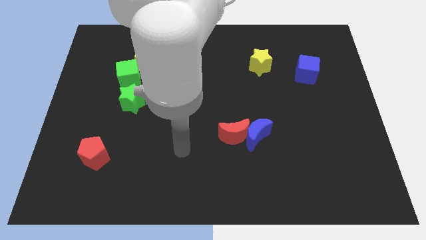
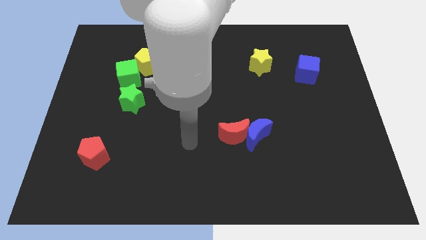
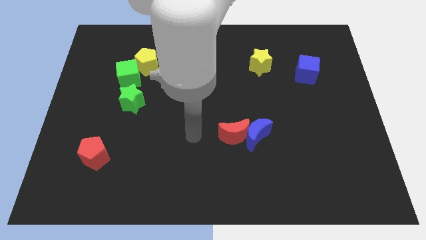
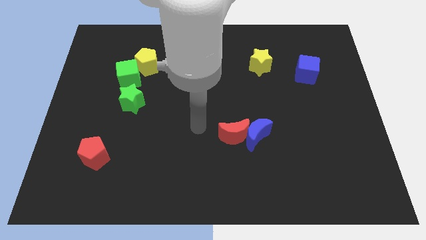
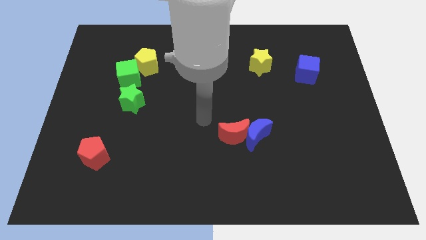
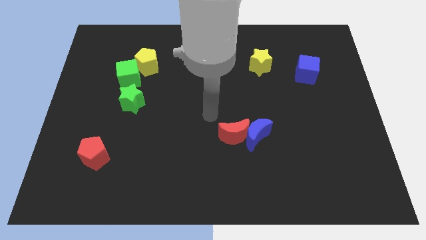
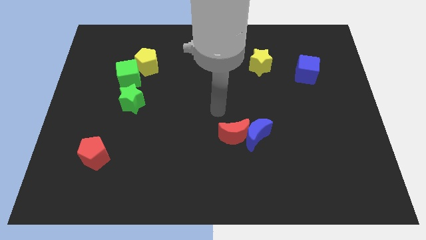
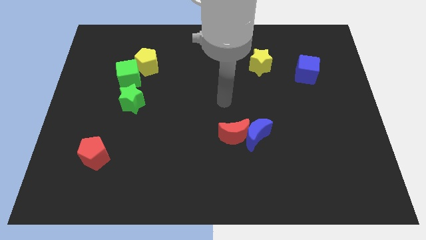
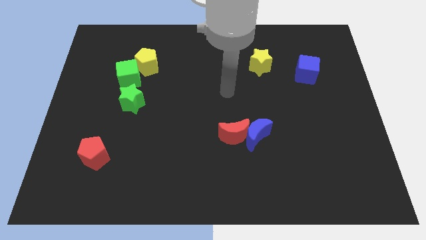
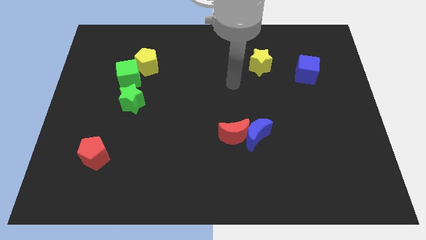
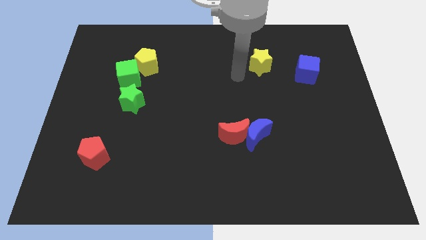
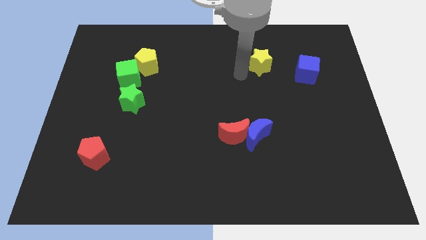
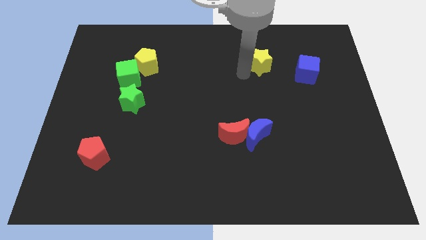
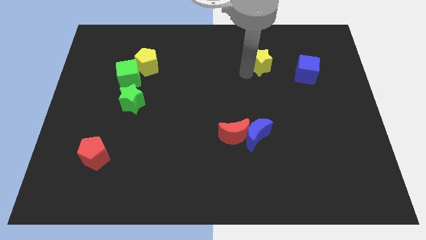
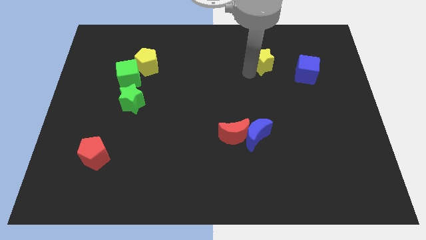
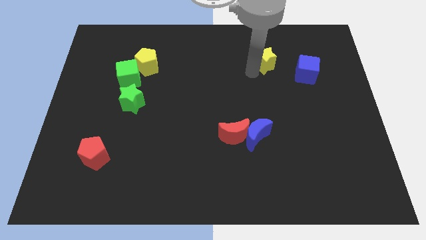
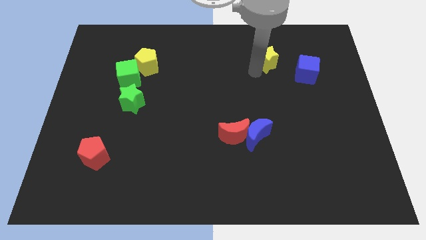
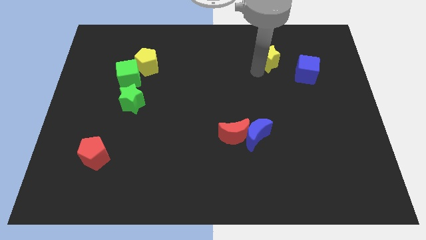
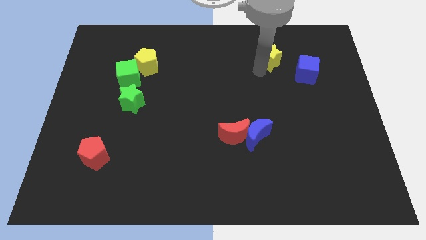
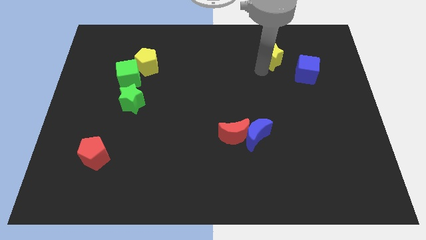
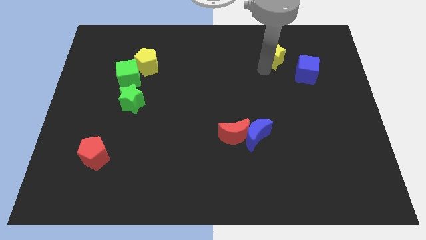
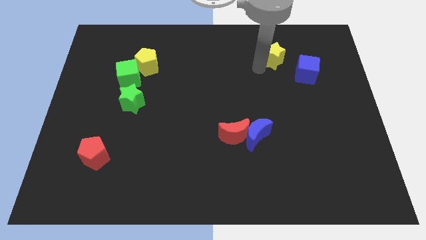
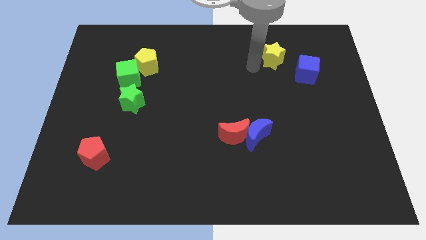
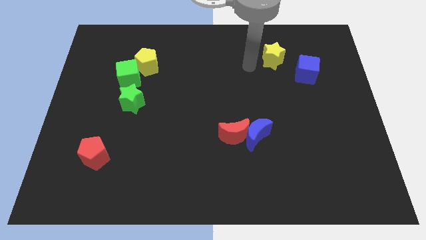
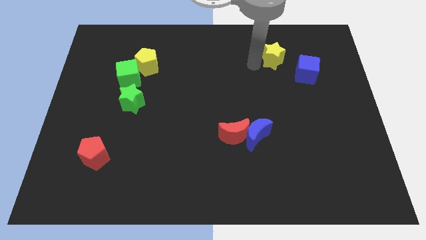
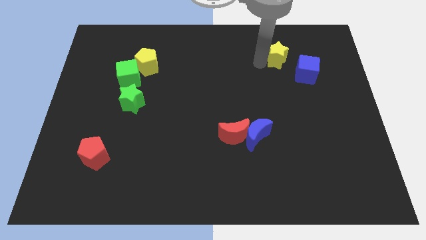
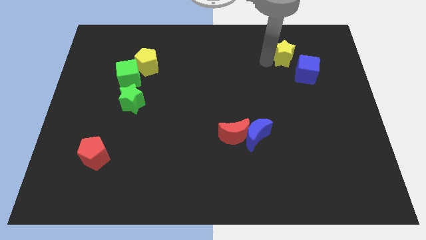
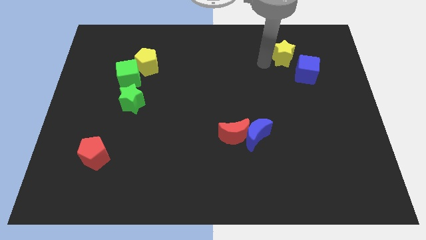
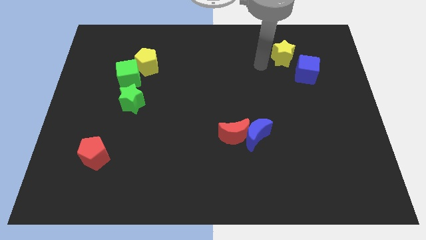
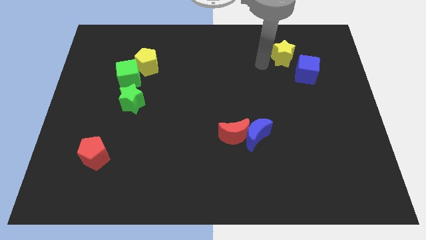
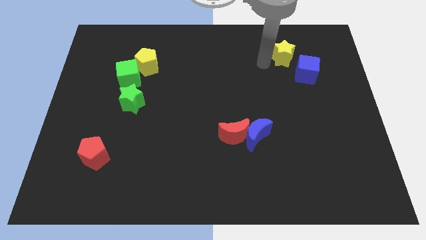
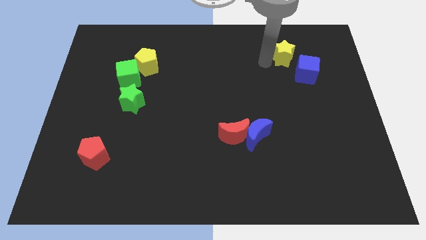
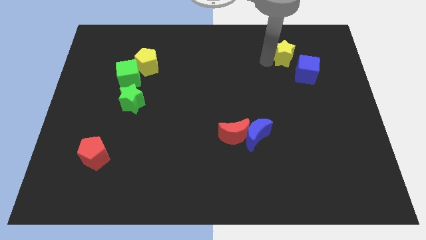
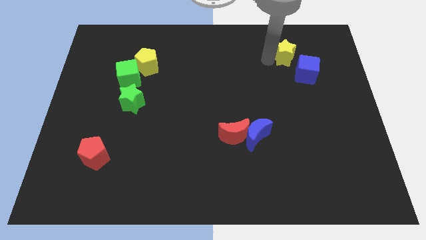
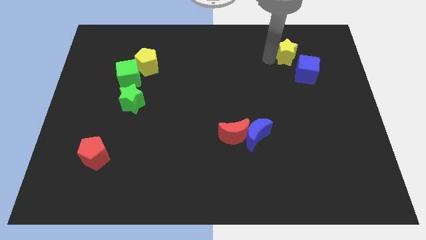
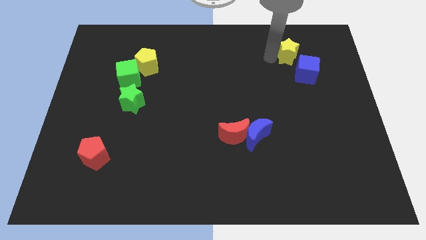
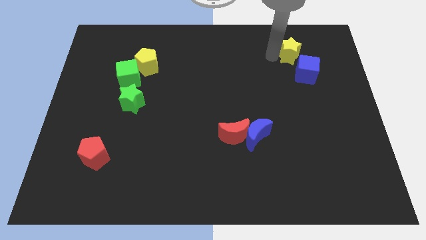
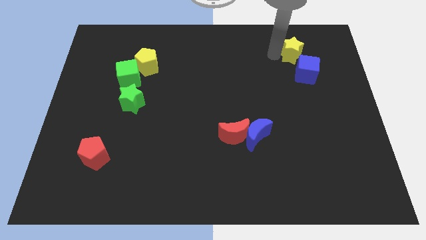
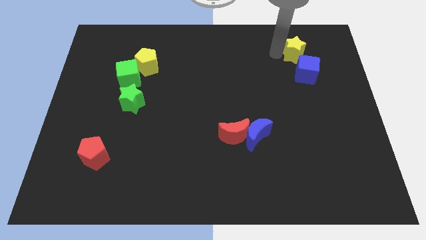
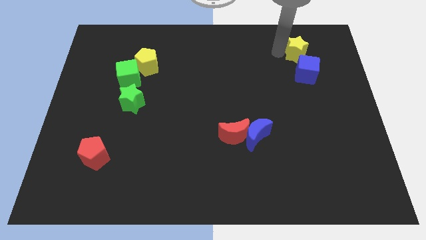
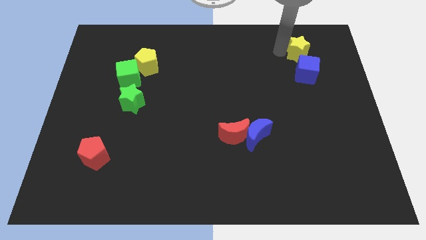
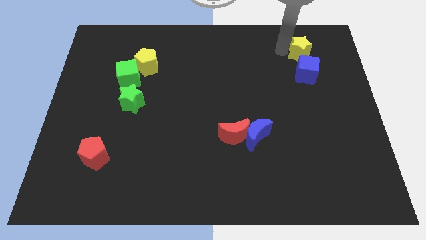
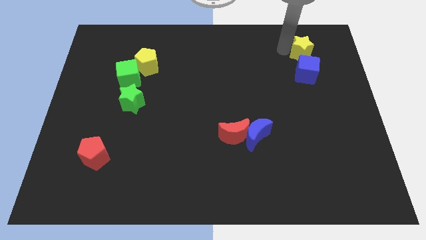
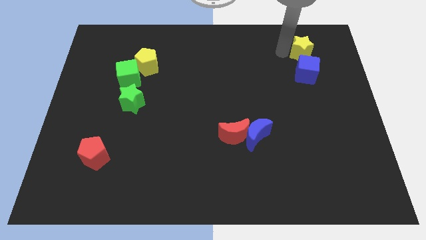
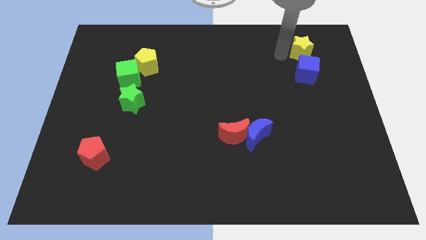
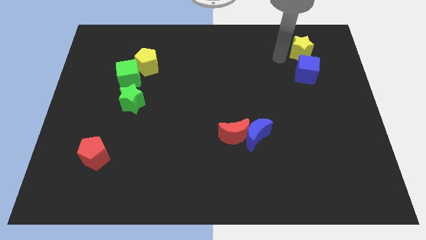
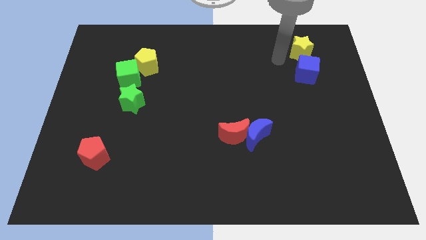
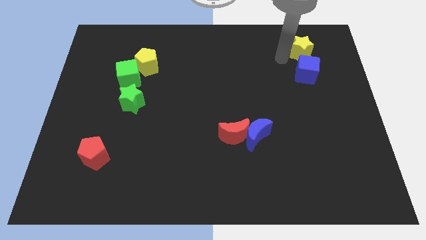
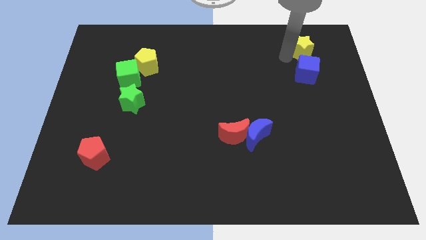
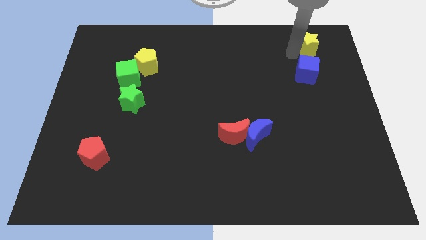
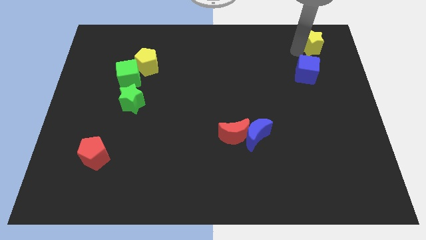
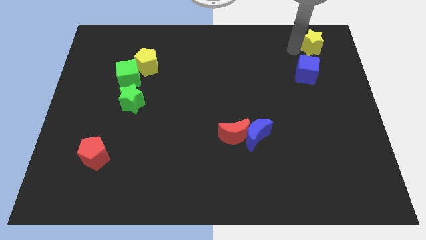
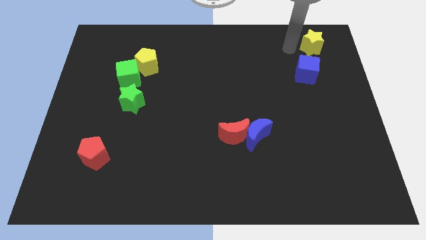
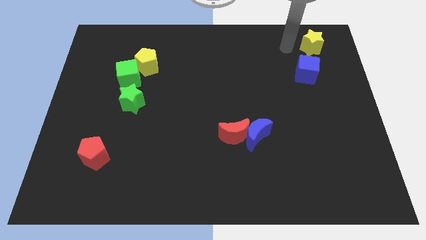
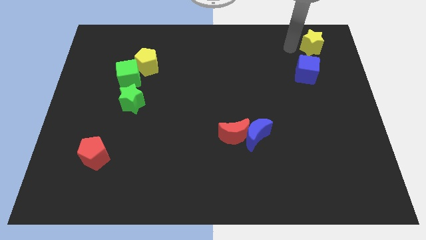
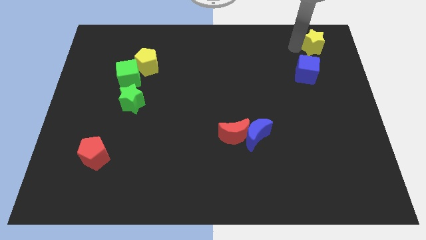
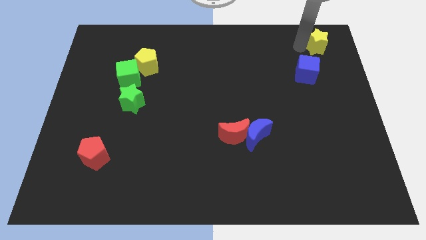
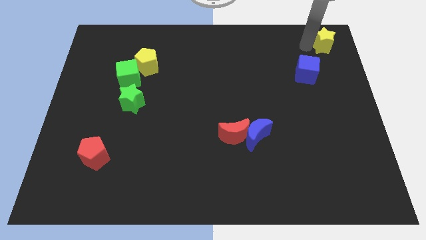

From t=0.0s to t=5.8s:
move the yellow star to the top right corner

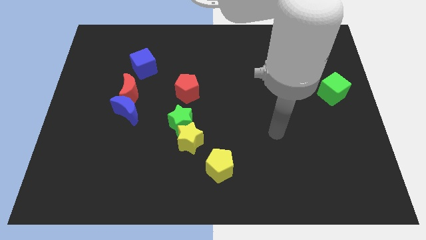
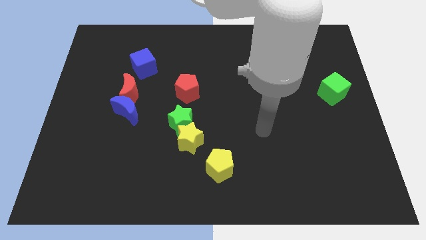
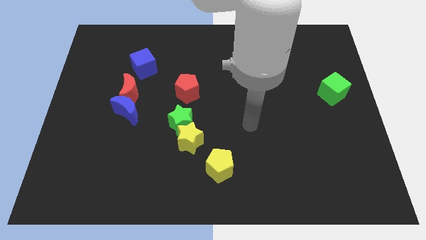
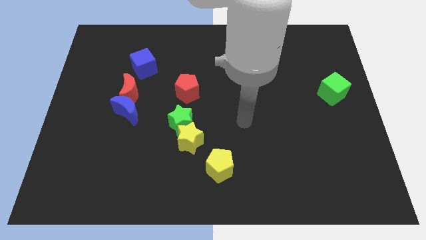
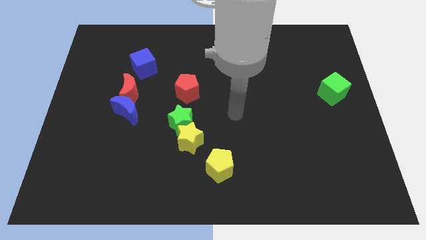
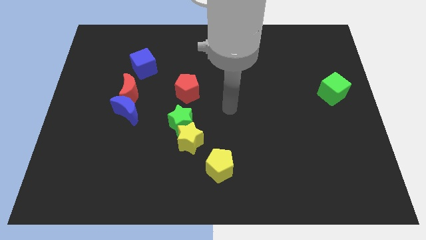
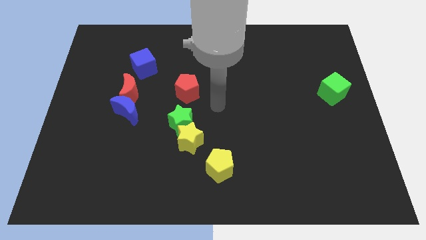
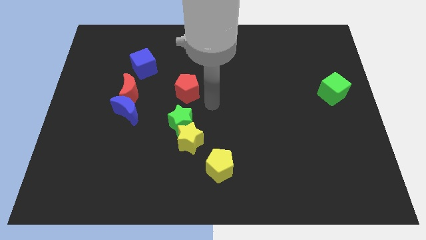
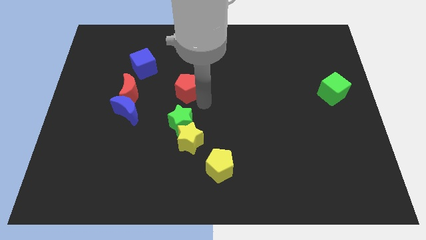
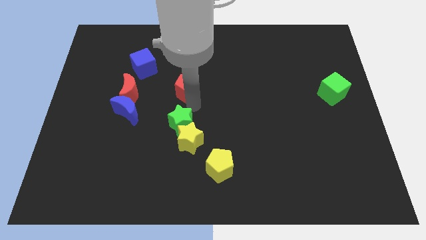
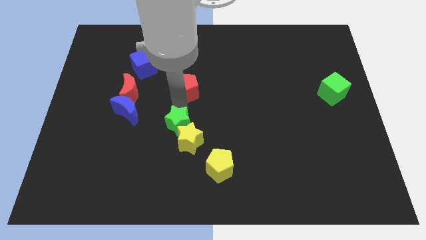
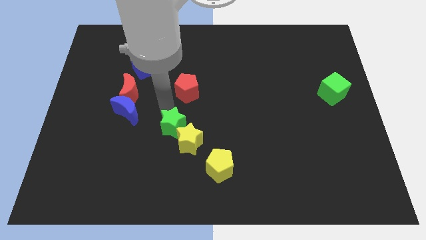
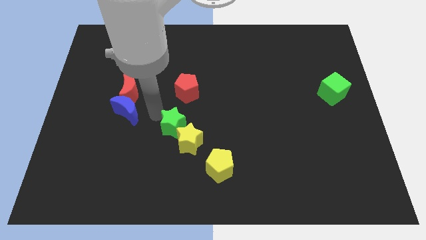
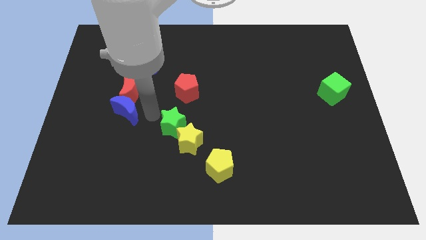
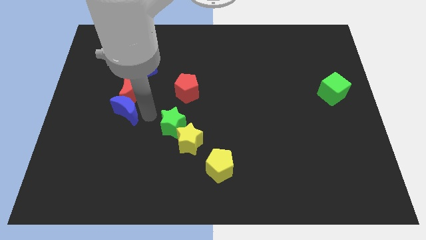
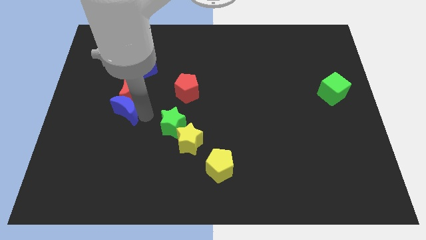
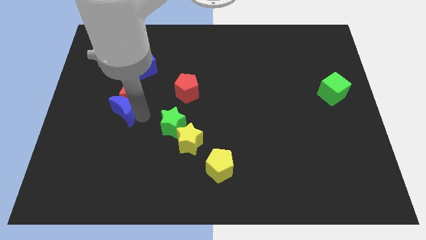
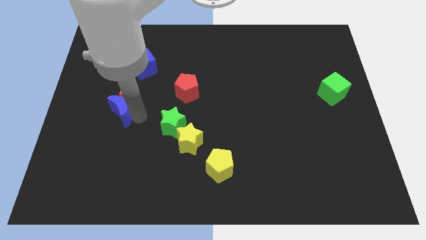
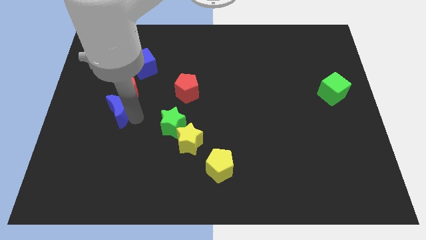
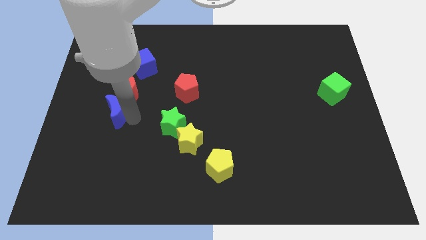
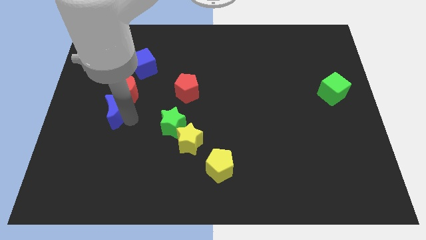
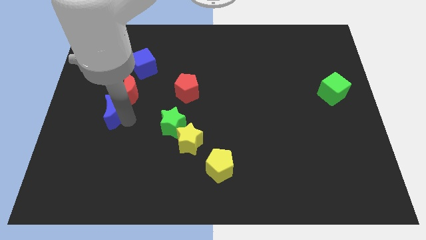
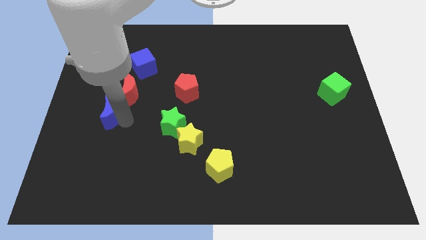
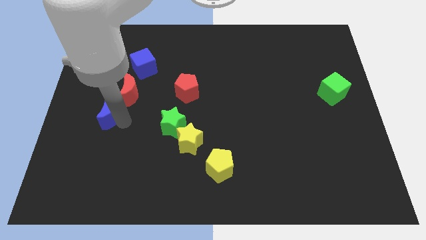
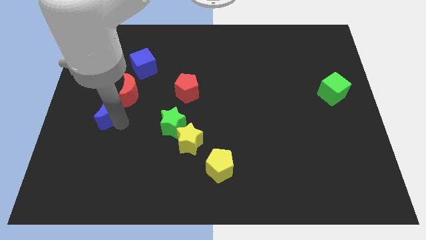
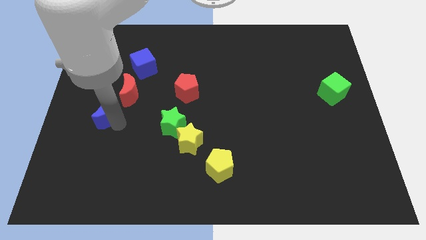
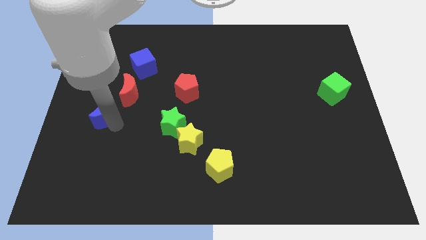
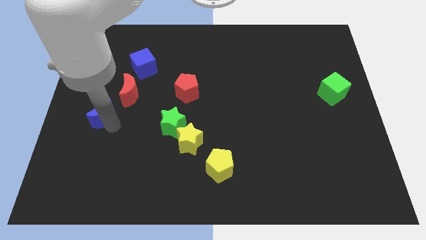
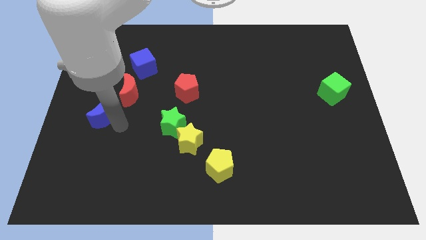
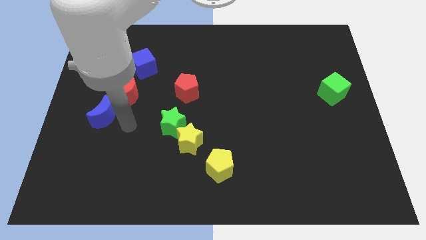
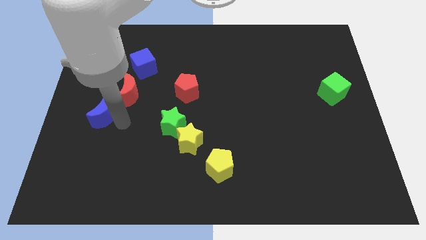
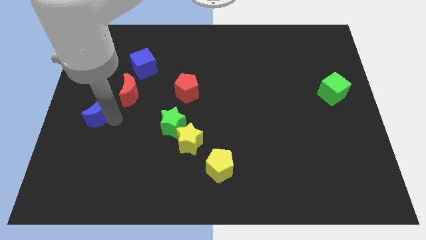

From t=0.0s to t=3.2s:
slide the blue moon to the left side of the board
